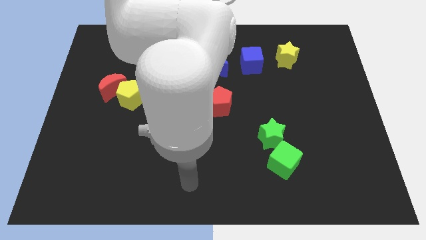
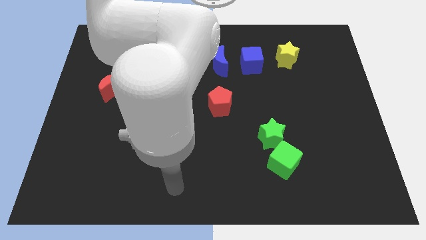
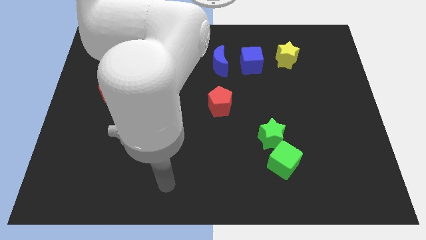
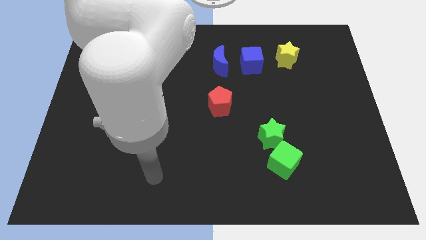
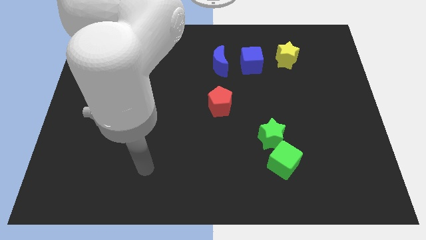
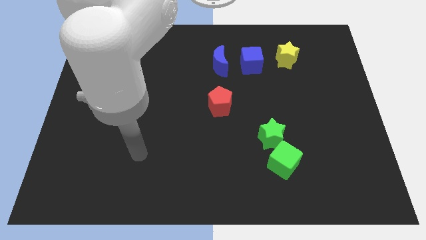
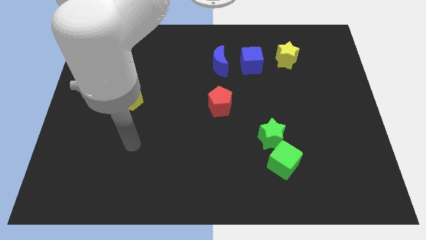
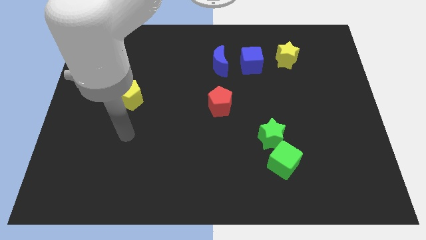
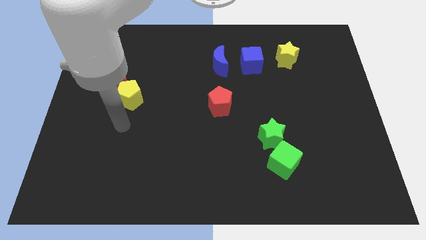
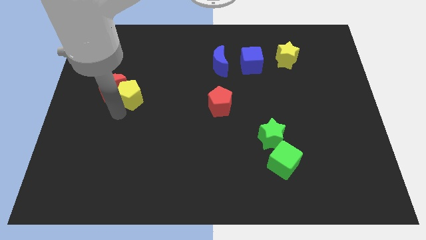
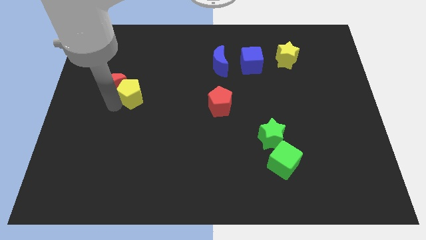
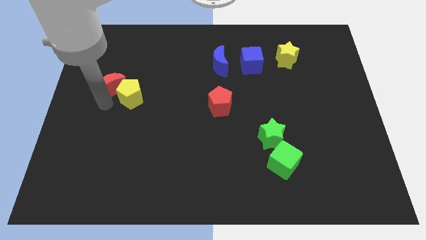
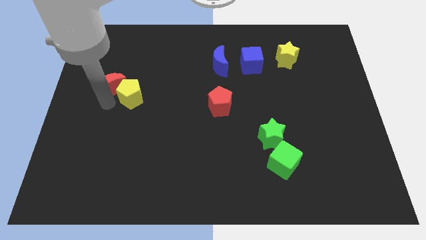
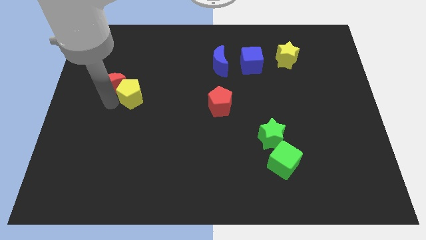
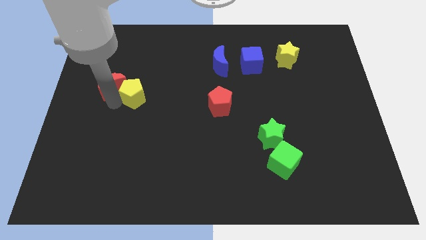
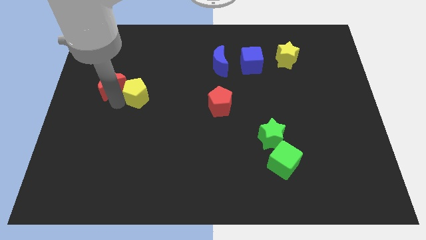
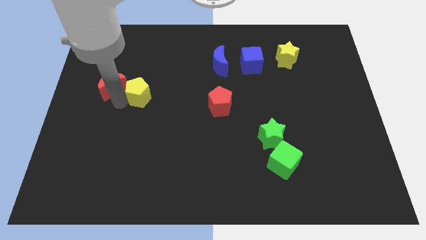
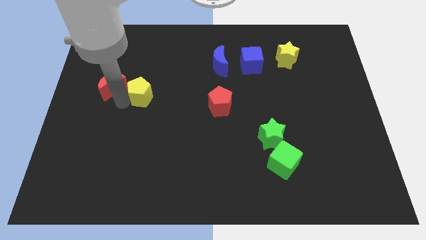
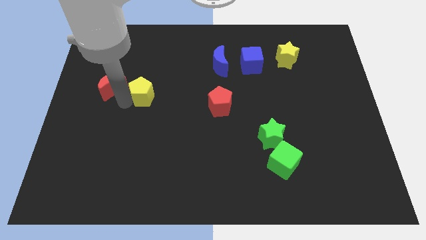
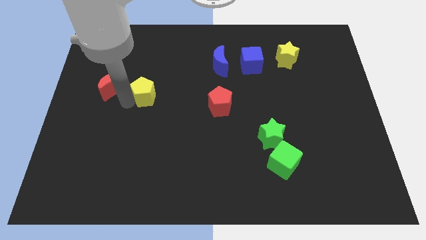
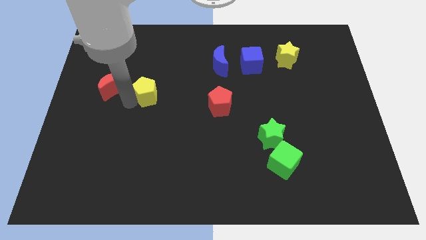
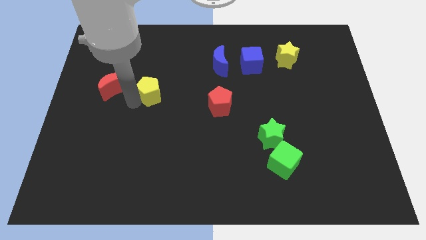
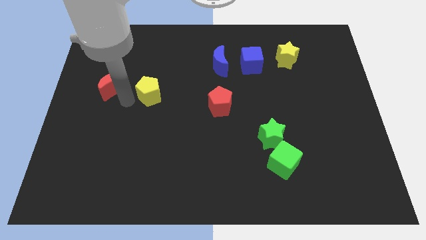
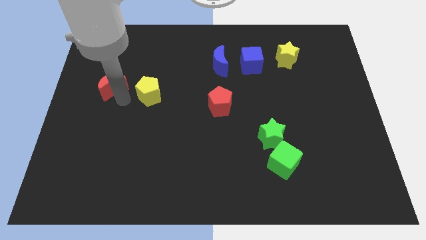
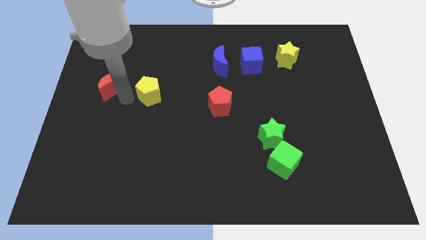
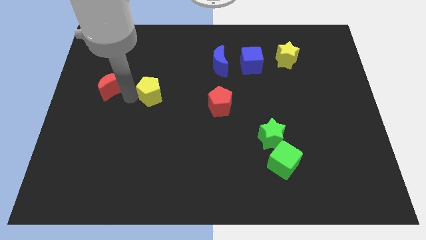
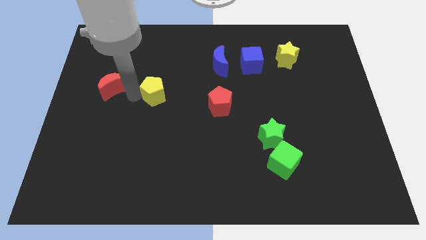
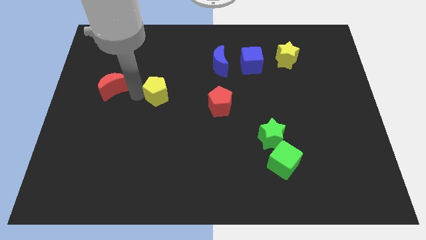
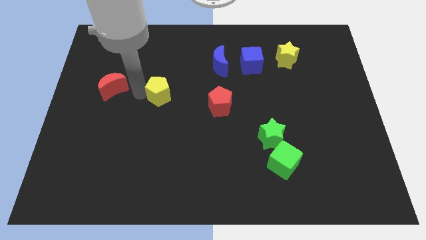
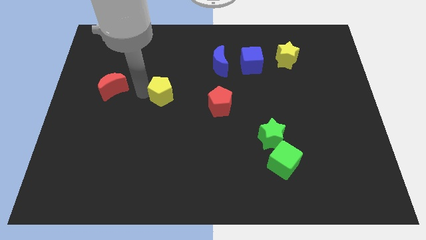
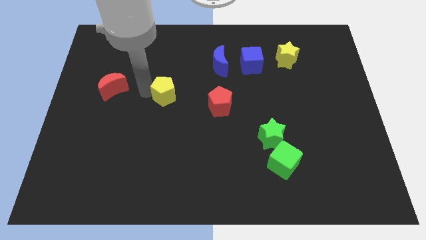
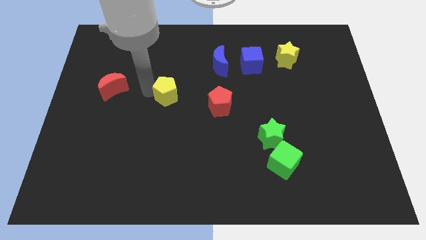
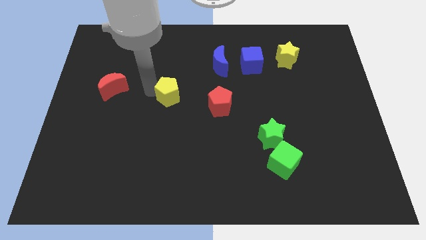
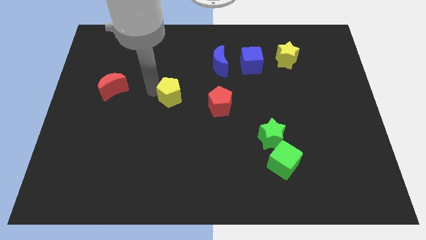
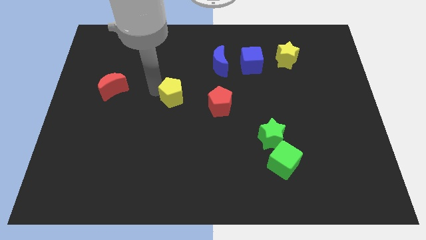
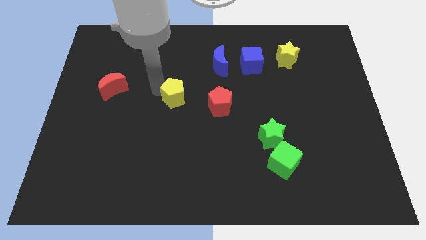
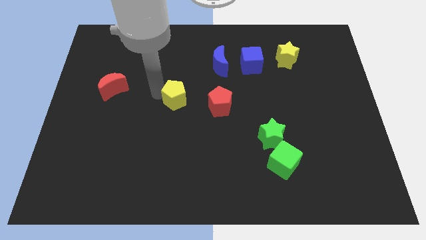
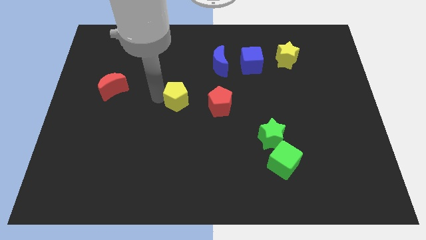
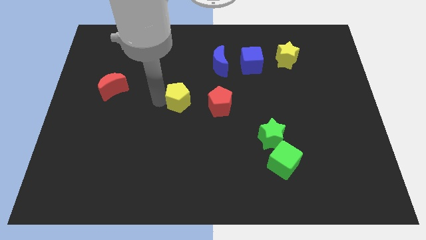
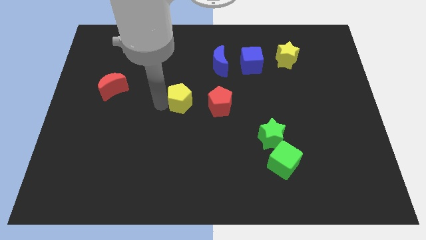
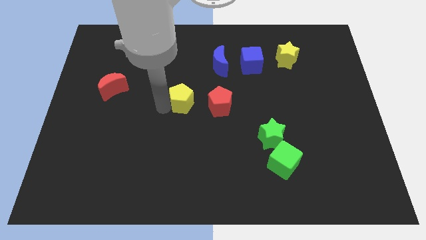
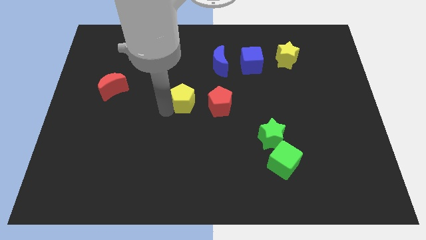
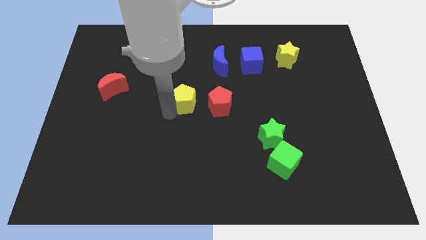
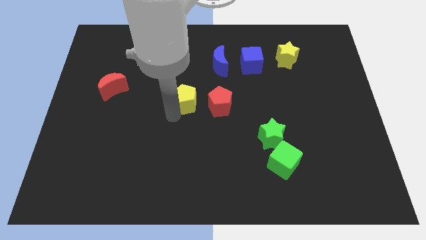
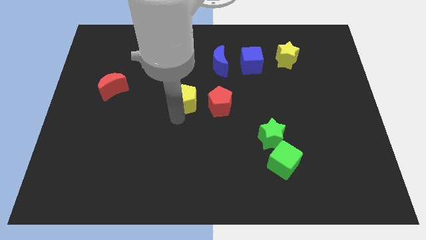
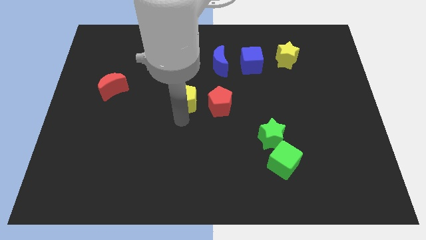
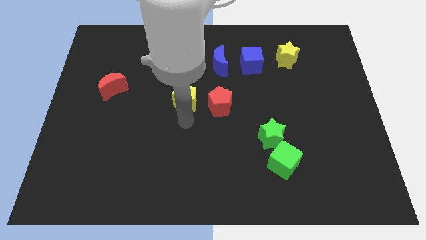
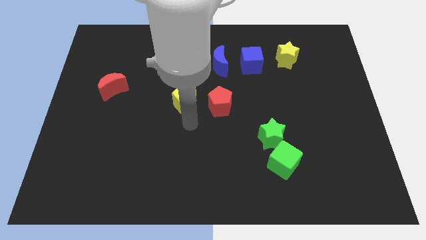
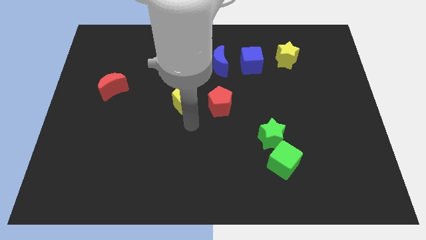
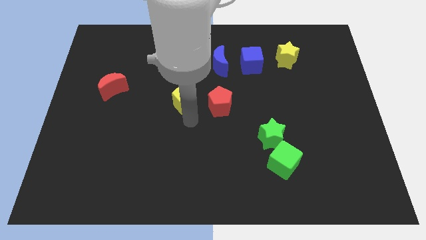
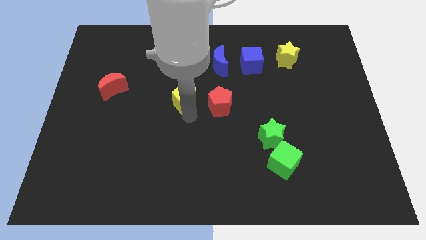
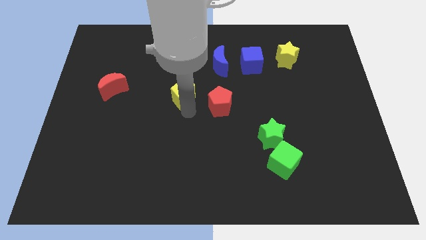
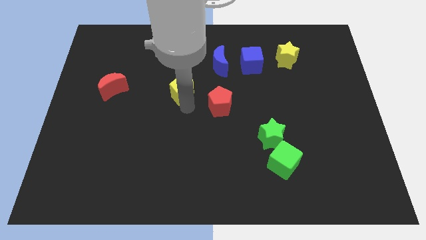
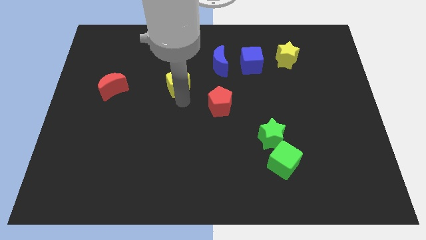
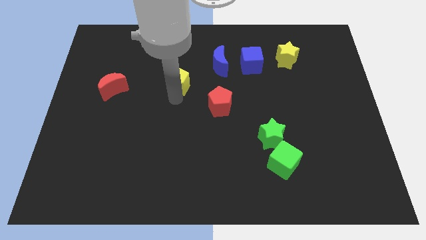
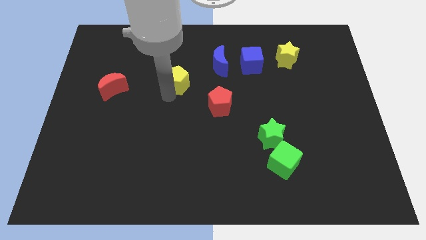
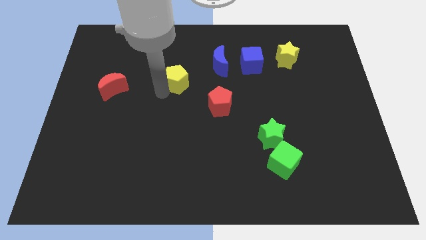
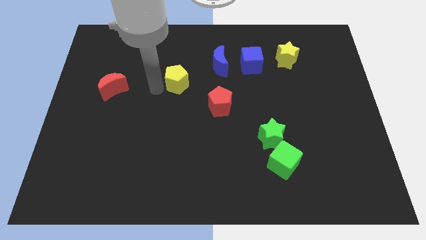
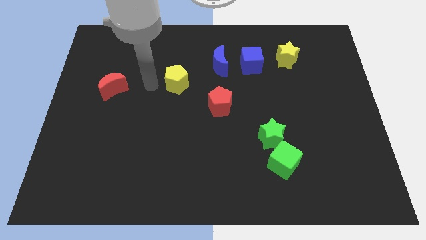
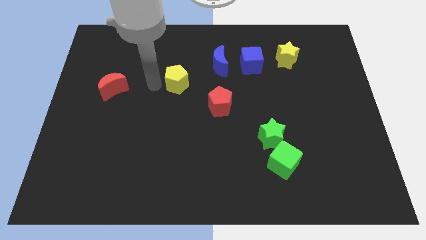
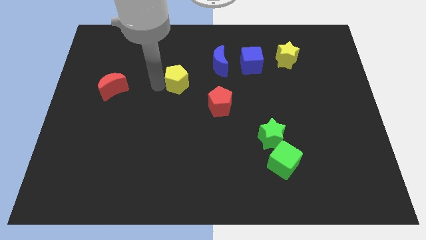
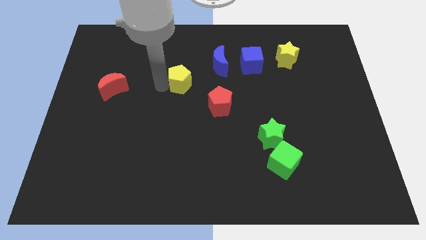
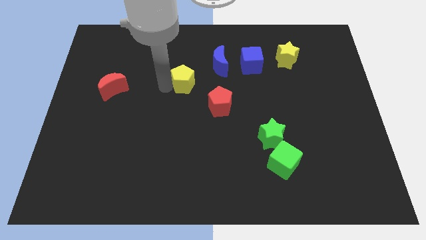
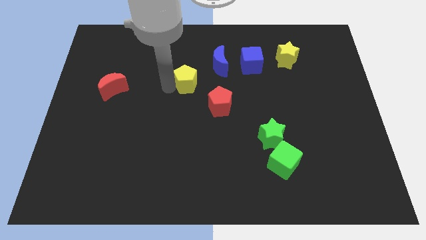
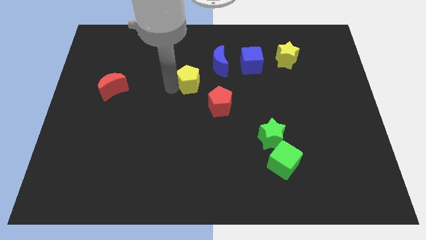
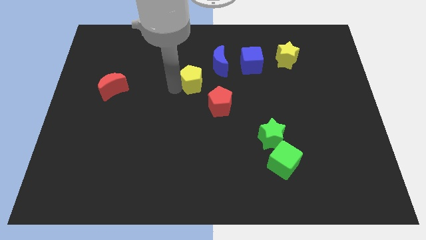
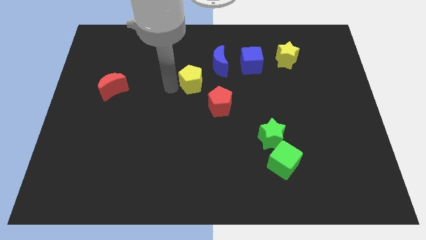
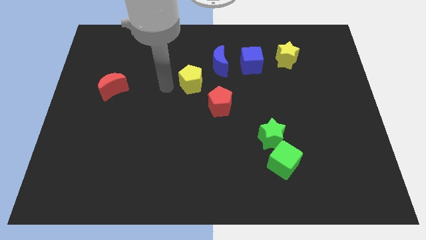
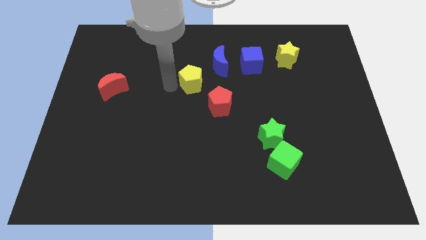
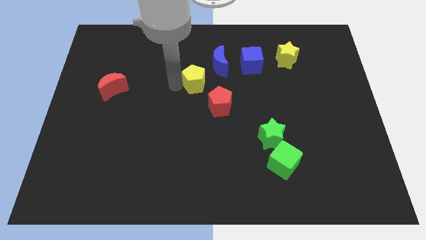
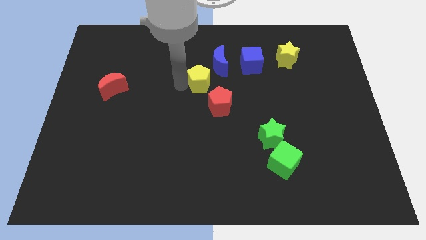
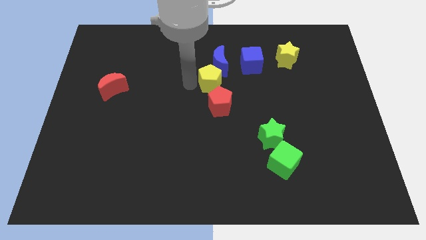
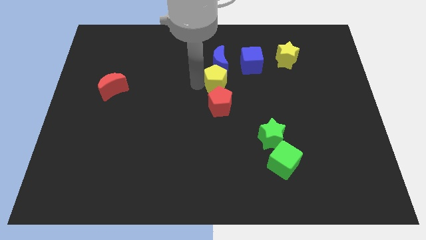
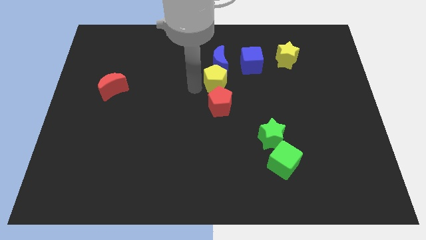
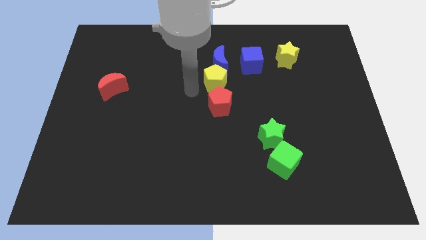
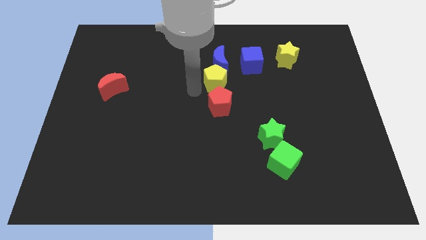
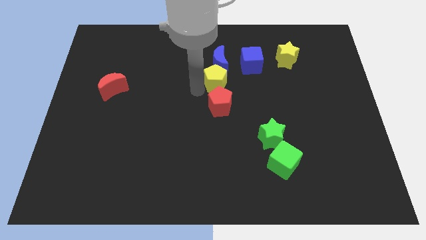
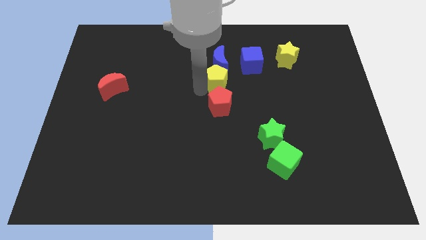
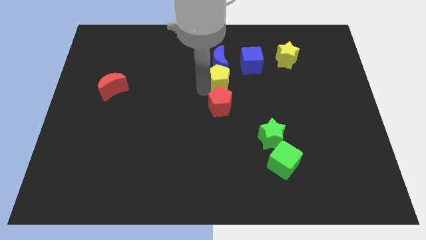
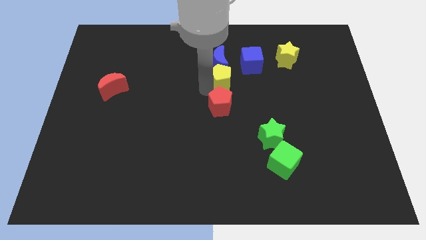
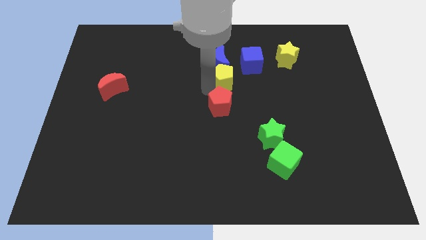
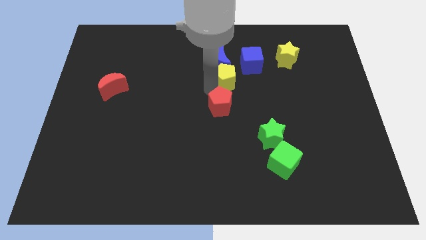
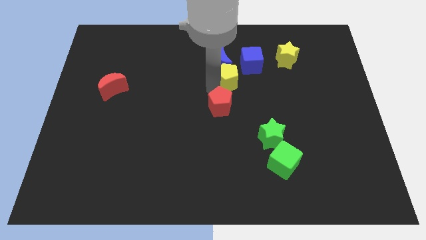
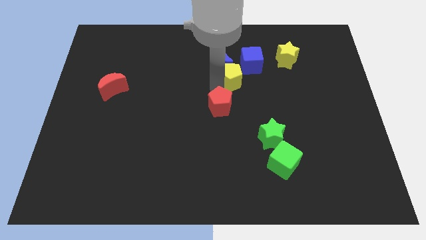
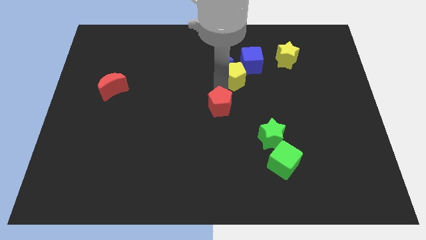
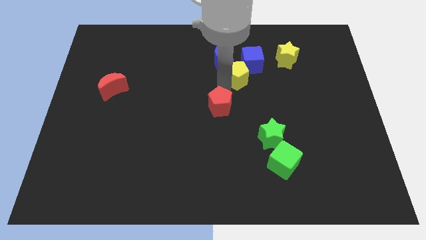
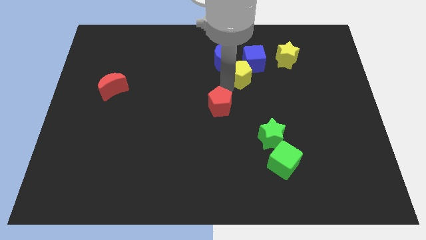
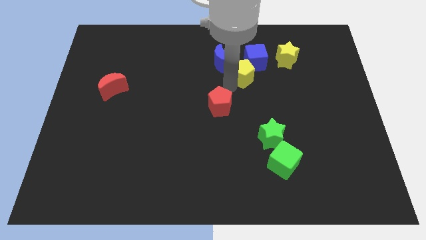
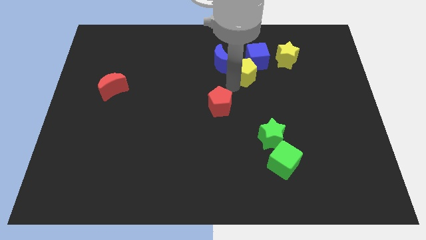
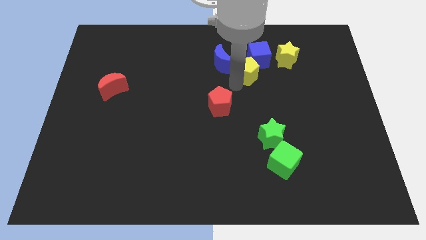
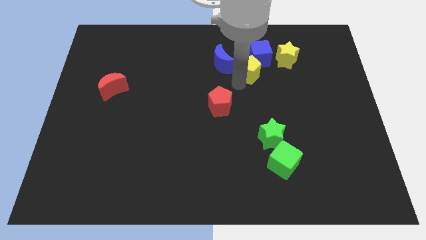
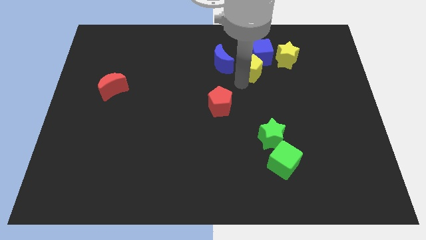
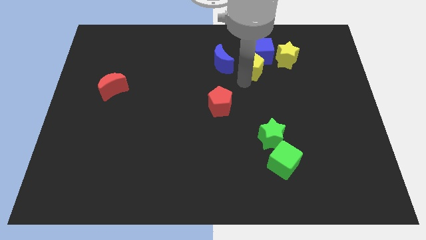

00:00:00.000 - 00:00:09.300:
slide the yellow pentagon to the blue cube
